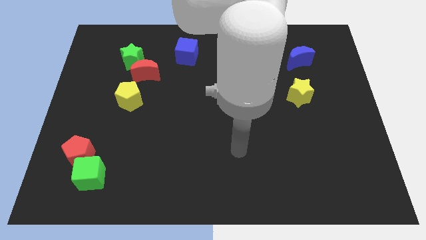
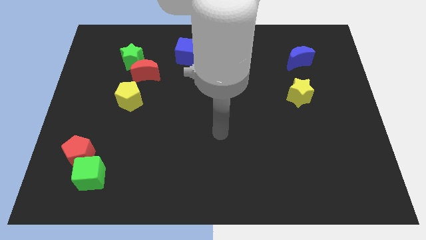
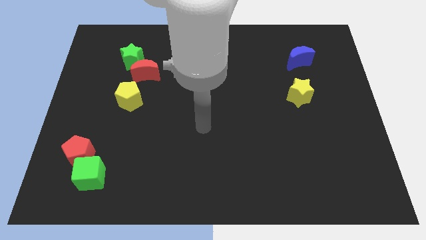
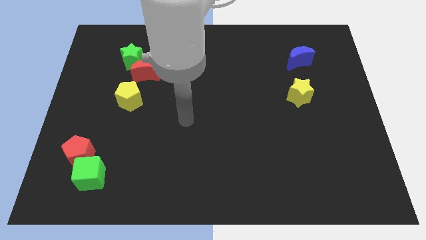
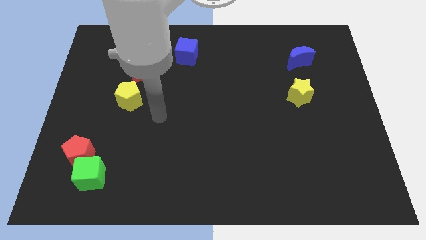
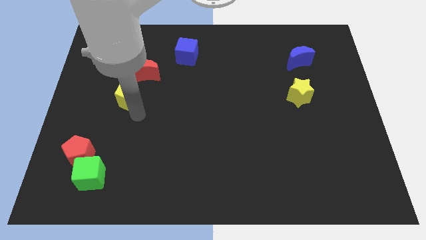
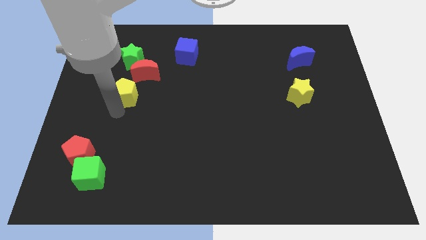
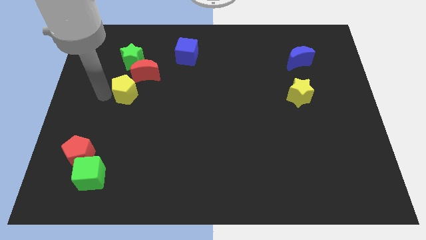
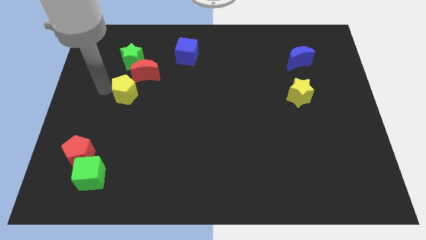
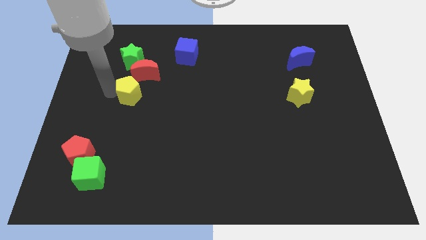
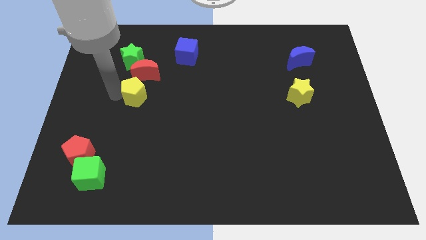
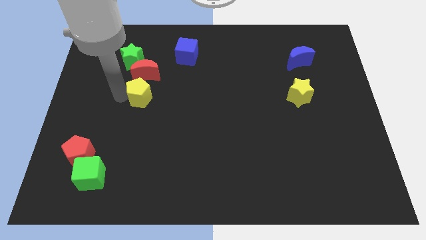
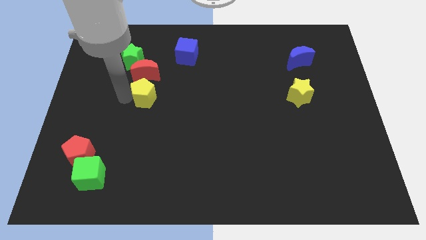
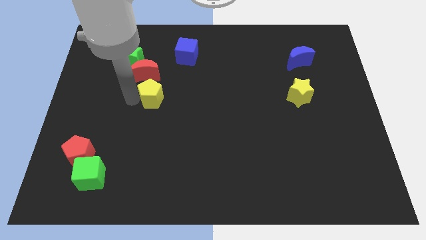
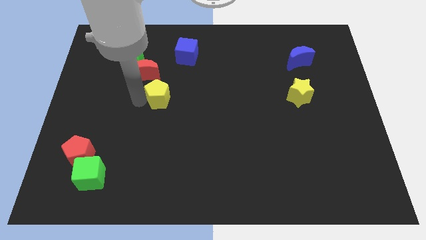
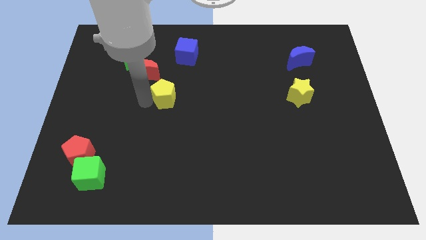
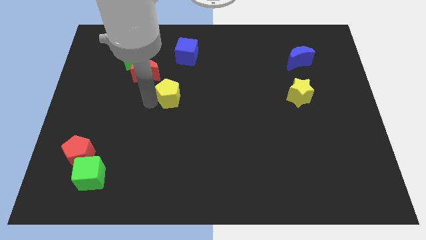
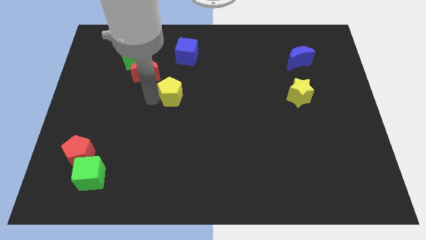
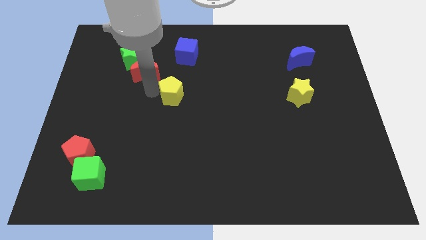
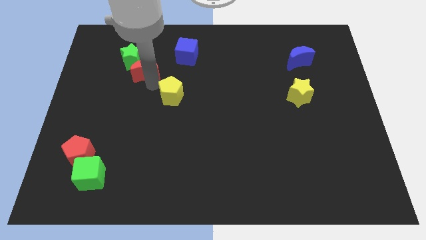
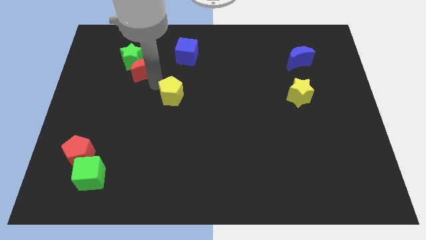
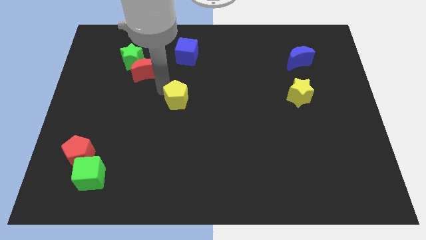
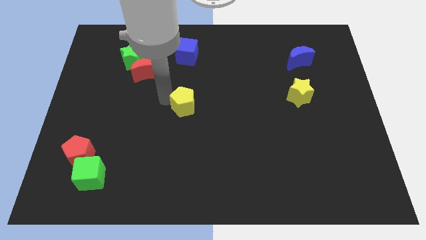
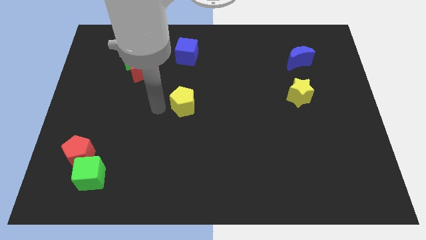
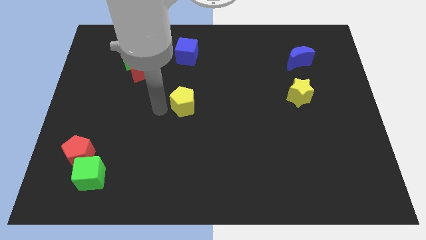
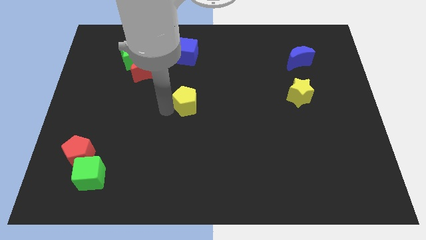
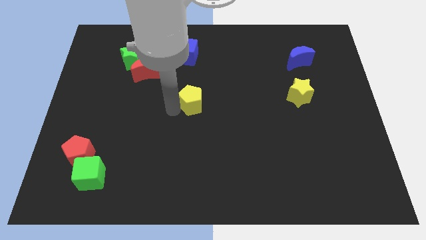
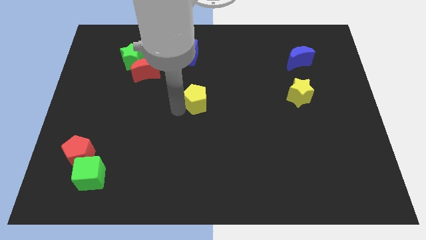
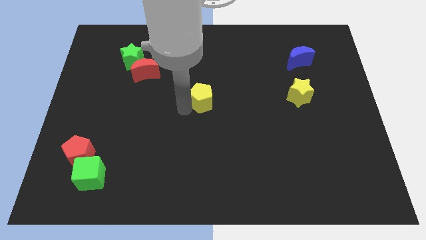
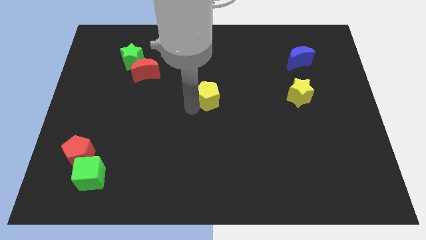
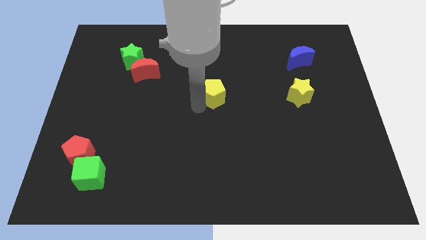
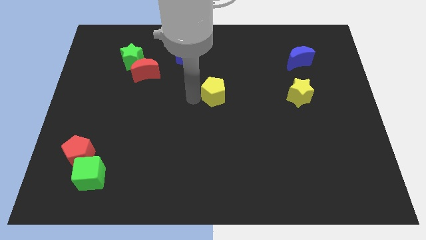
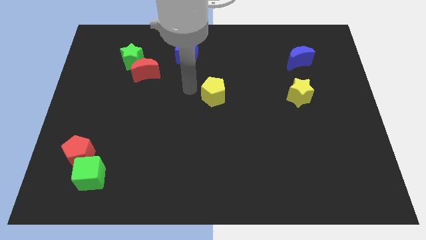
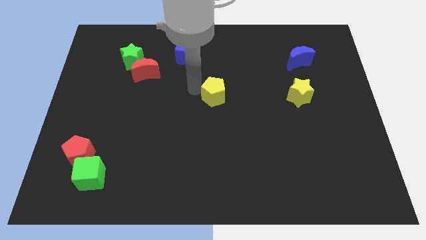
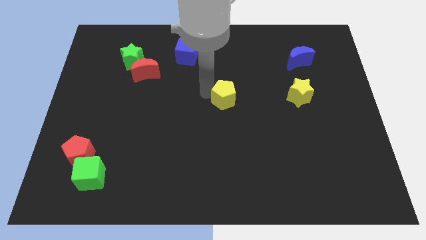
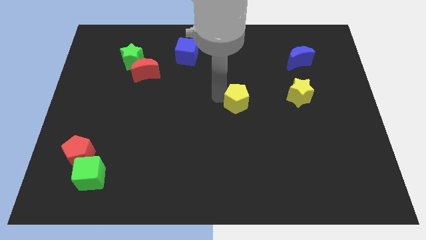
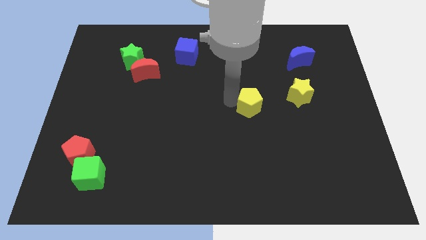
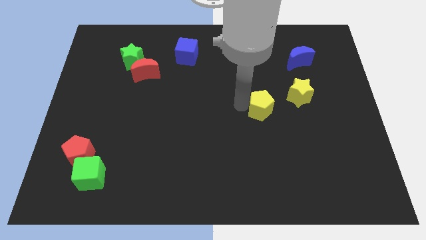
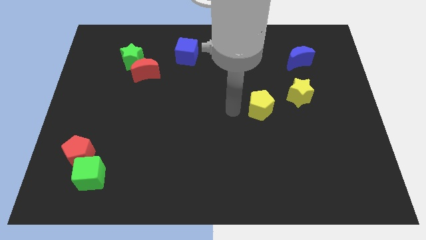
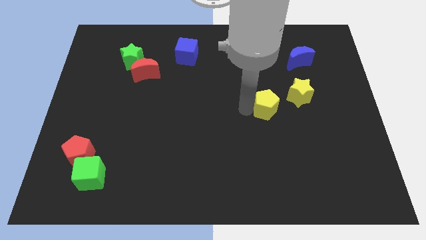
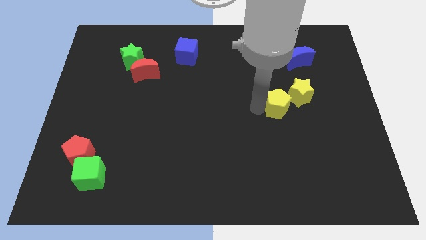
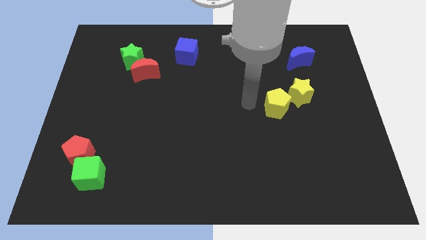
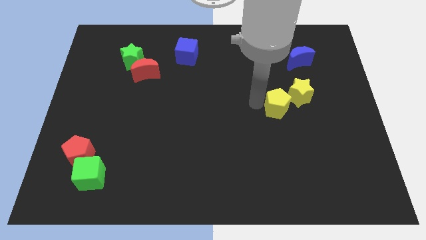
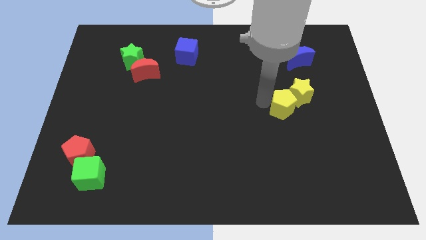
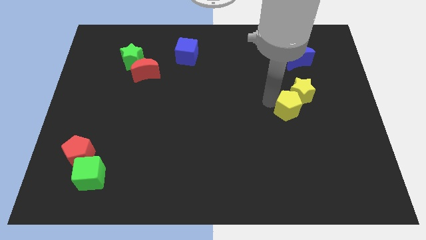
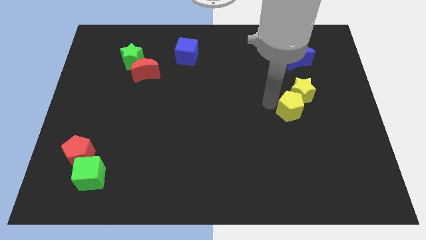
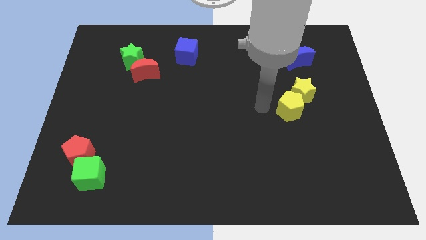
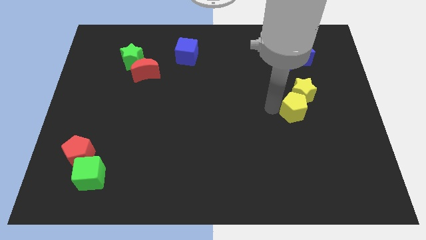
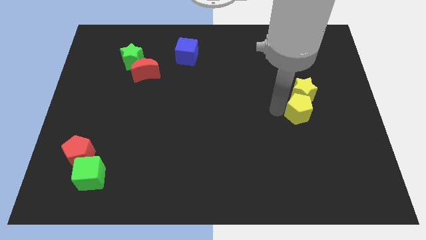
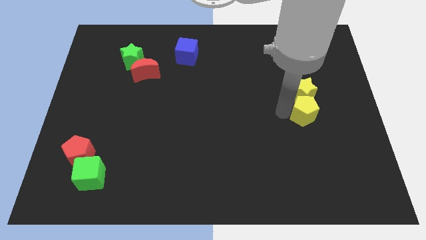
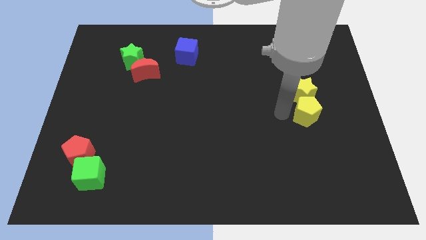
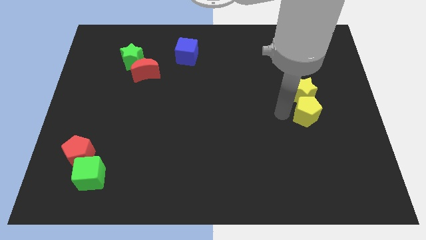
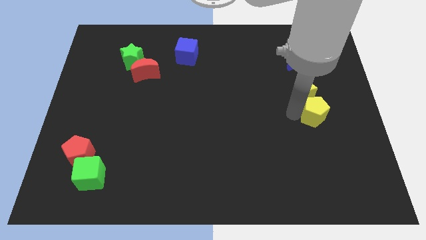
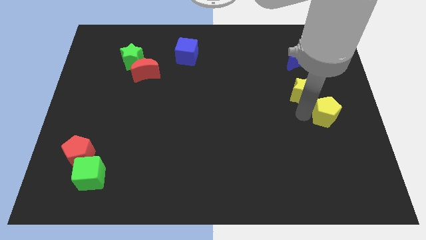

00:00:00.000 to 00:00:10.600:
move the yellow pentagon to the right side

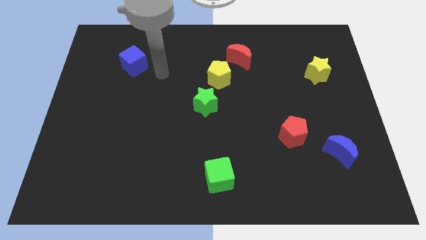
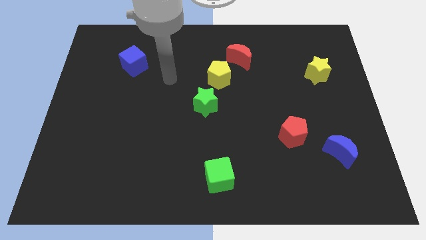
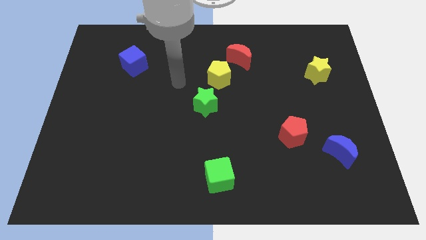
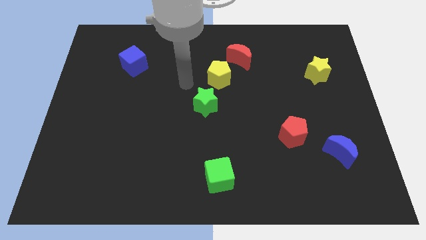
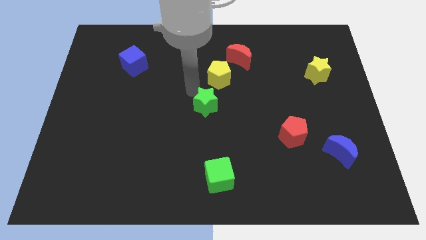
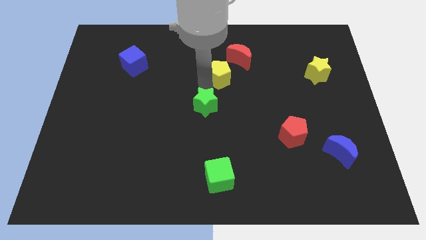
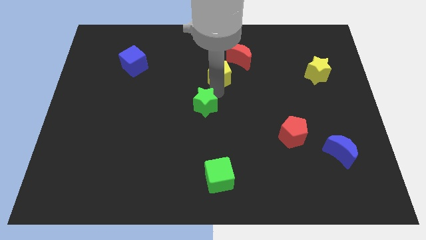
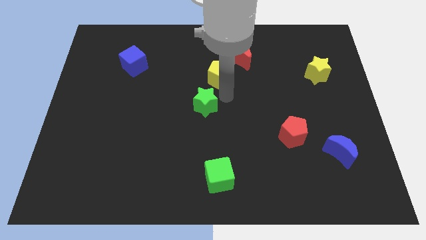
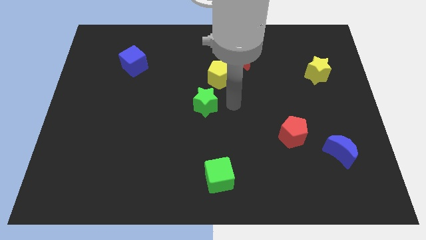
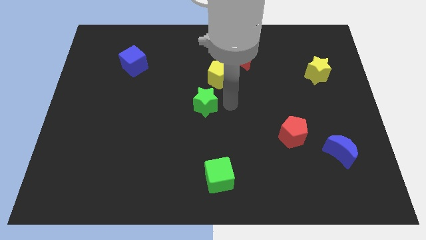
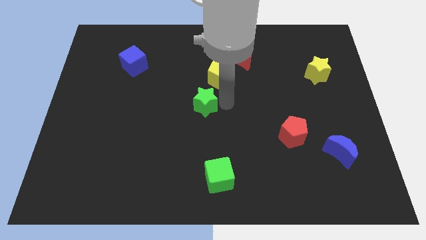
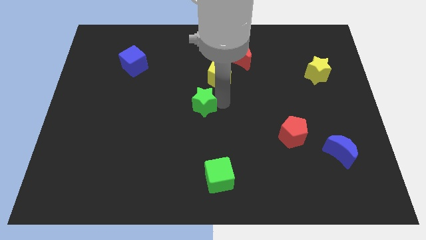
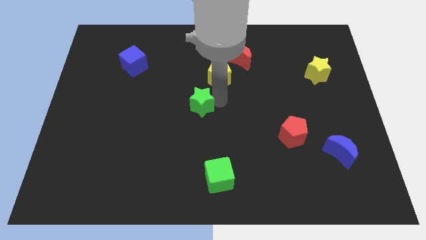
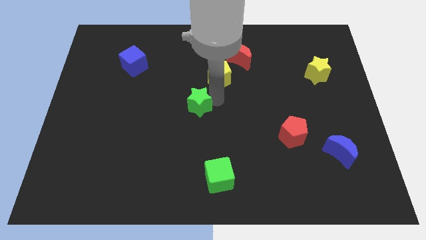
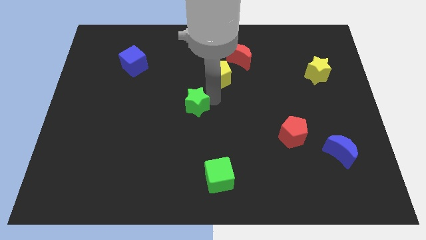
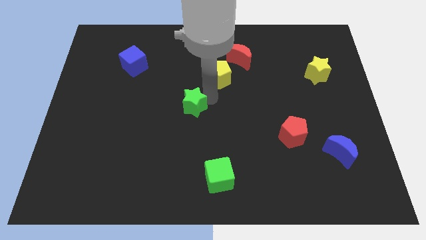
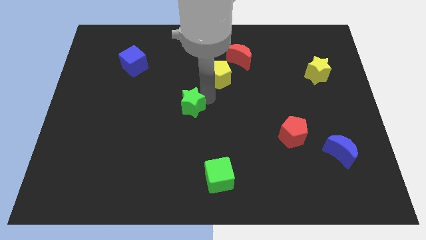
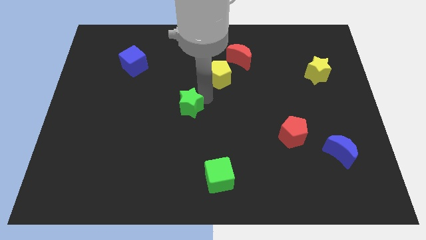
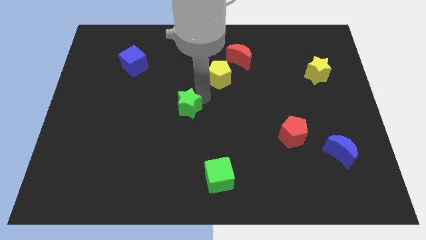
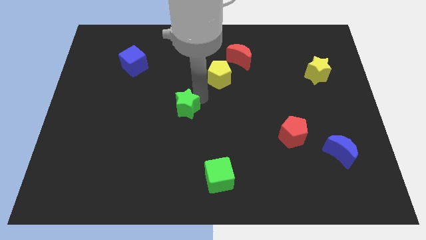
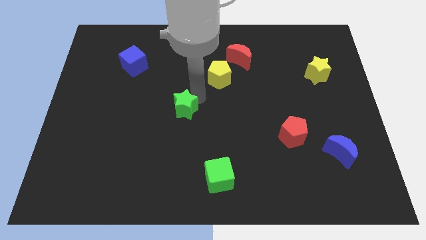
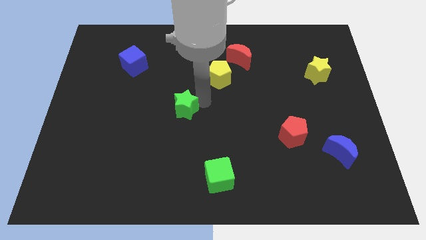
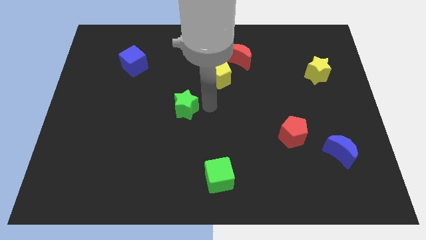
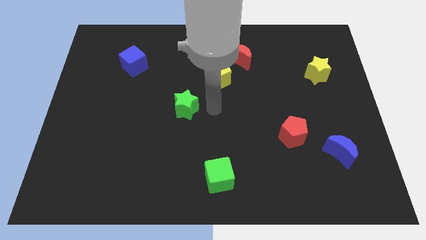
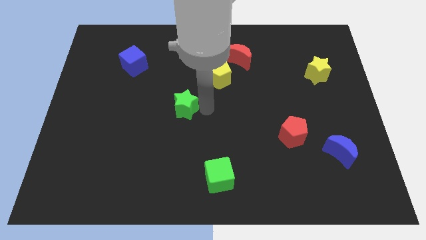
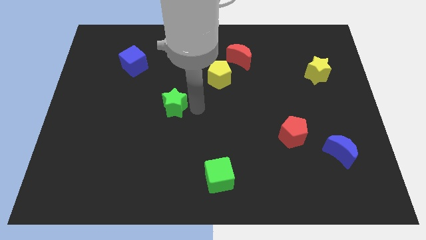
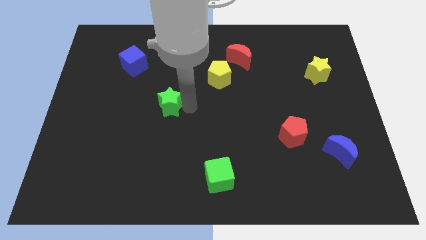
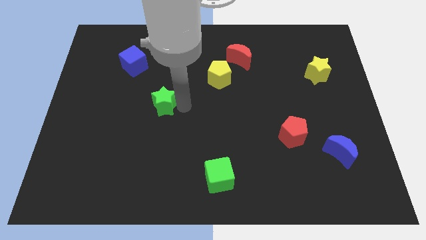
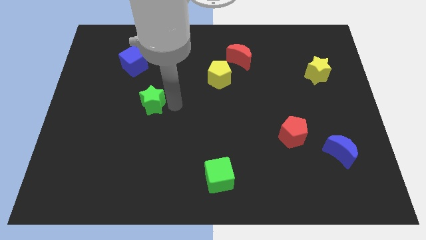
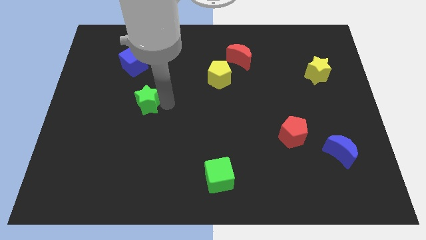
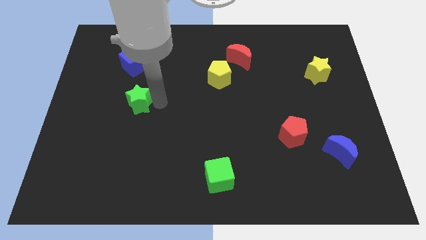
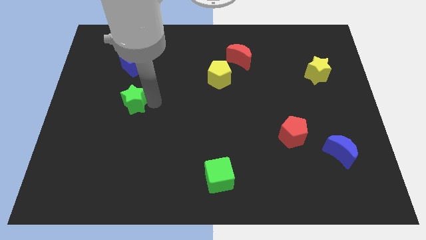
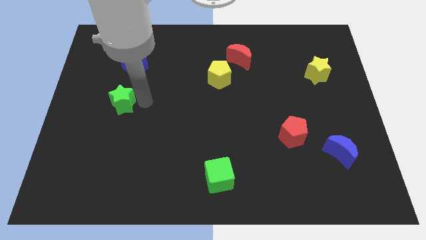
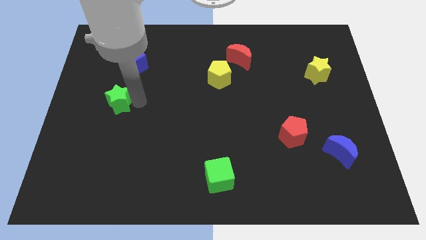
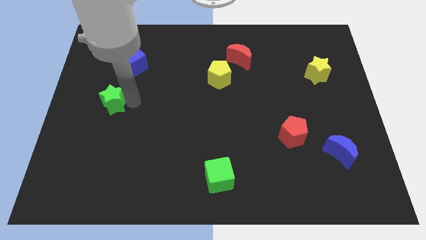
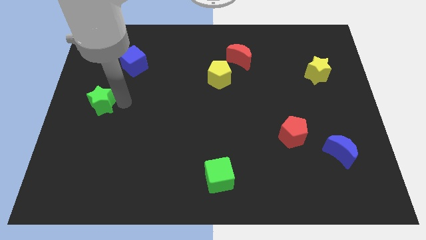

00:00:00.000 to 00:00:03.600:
slide the green star to the left side
